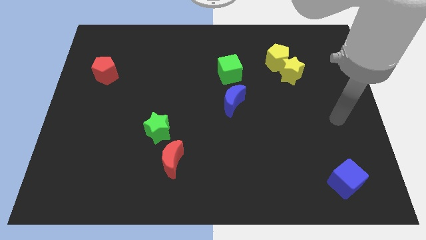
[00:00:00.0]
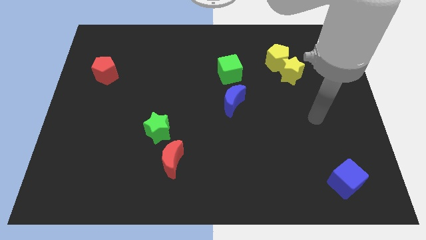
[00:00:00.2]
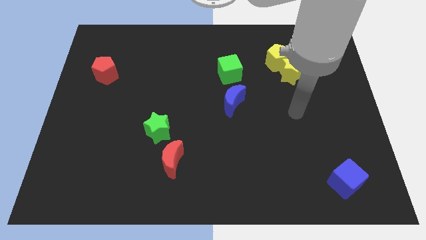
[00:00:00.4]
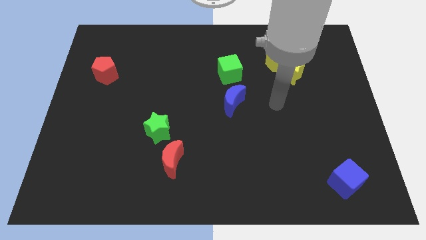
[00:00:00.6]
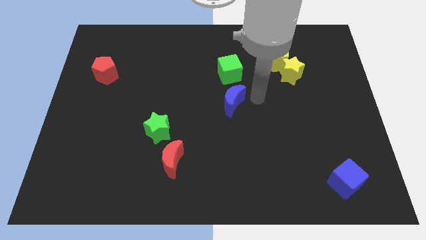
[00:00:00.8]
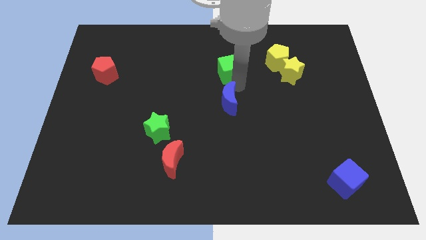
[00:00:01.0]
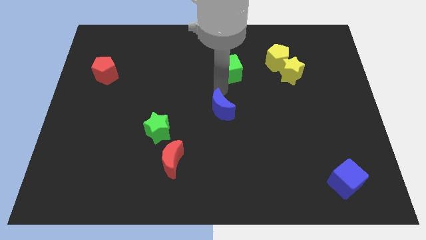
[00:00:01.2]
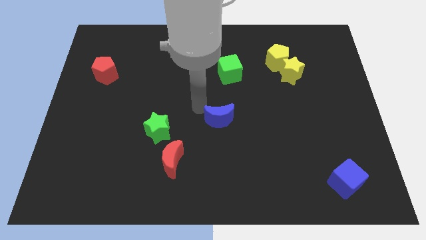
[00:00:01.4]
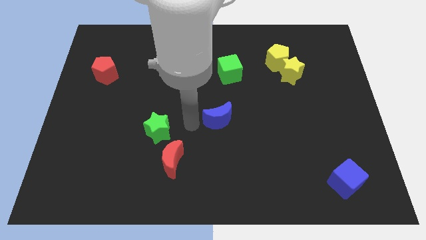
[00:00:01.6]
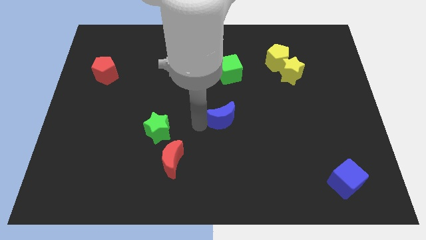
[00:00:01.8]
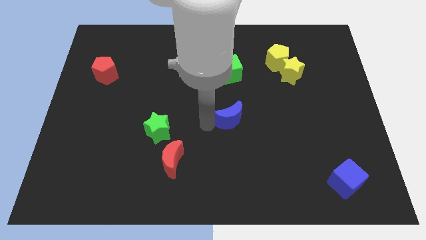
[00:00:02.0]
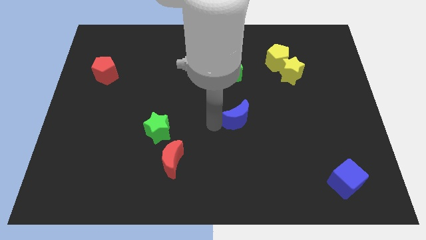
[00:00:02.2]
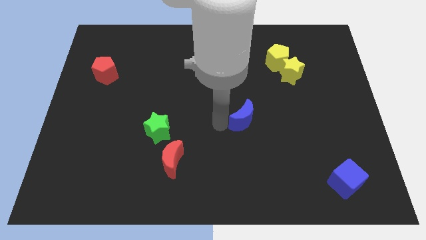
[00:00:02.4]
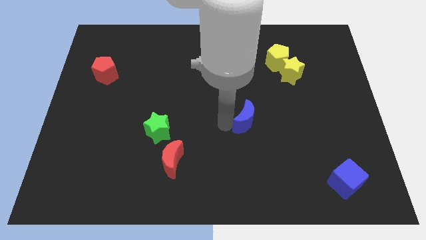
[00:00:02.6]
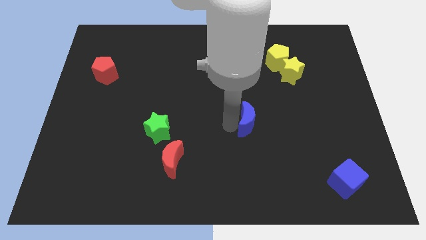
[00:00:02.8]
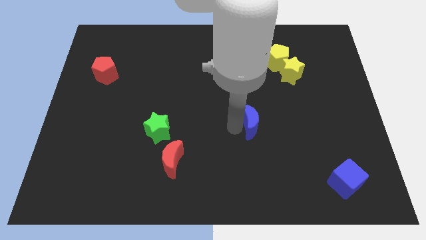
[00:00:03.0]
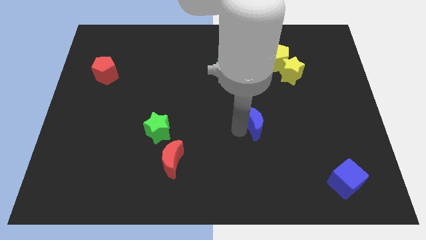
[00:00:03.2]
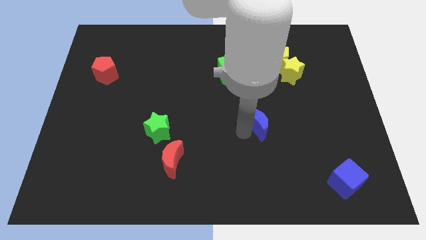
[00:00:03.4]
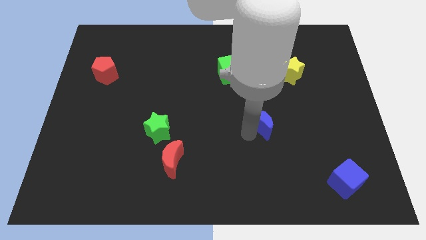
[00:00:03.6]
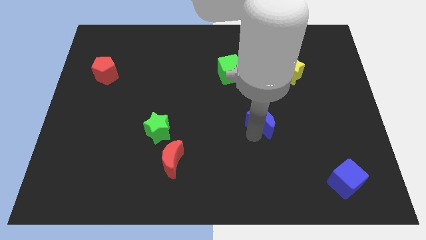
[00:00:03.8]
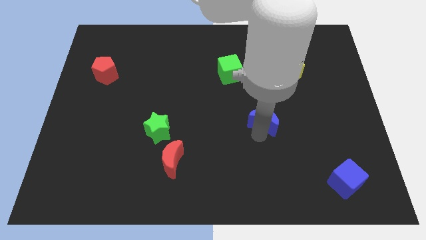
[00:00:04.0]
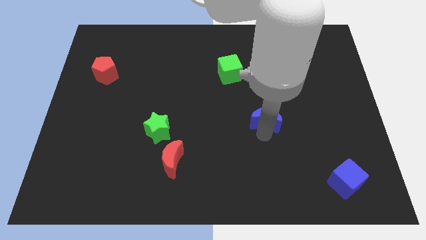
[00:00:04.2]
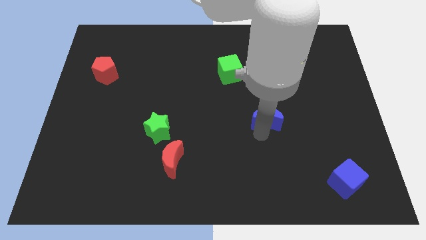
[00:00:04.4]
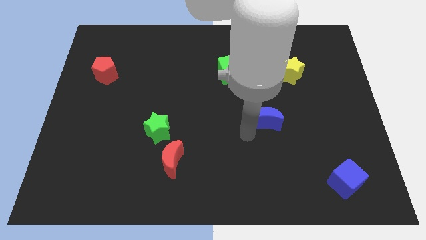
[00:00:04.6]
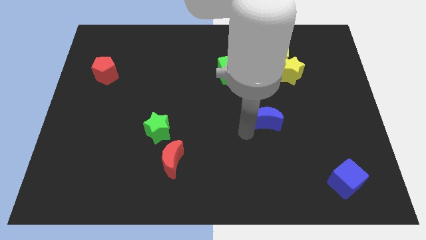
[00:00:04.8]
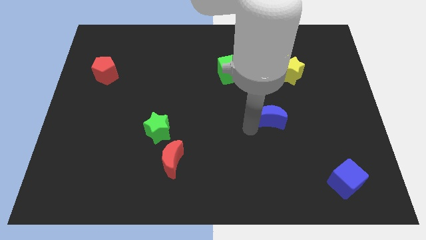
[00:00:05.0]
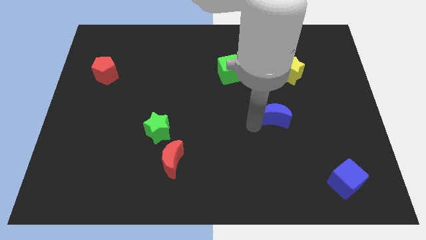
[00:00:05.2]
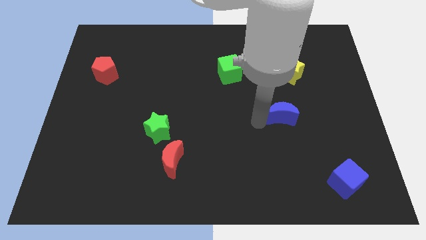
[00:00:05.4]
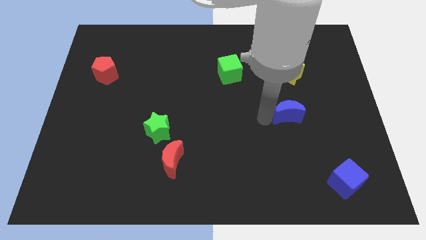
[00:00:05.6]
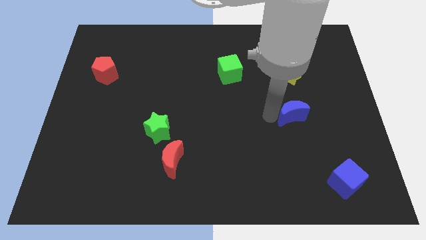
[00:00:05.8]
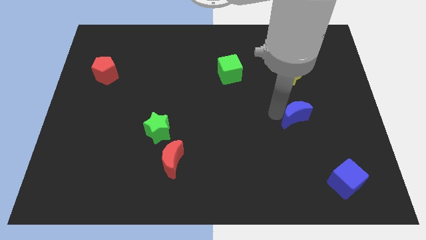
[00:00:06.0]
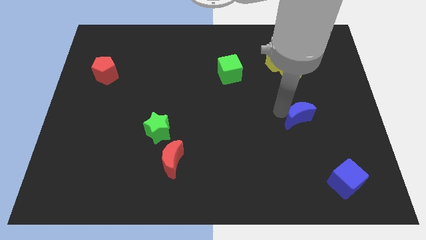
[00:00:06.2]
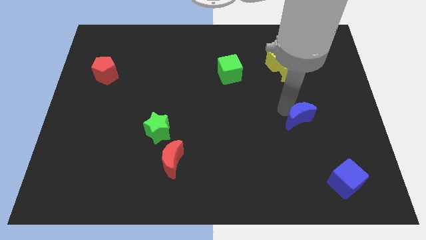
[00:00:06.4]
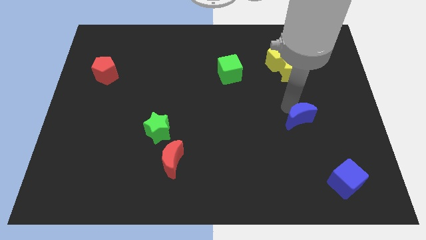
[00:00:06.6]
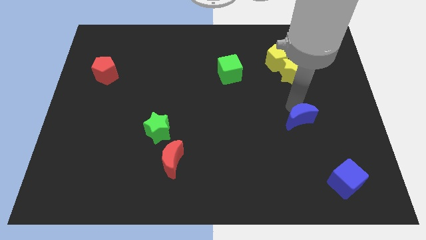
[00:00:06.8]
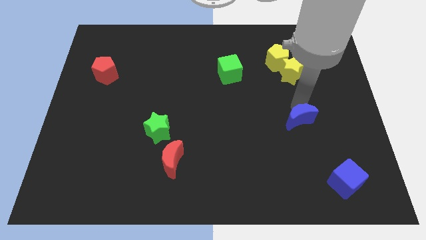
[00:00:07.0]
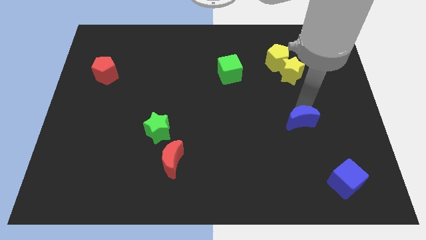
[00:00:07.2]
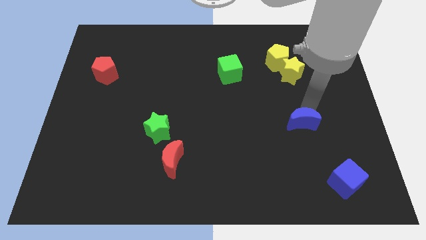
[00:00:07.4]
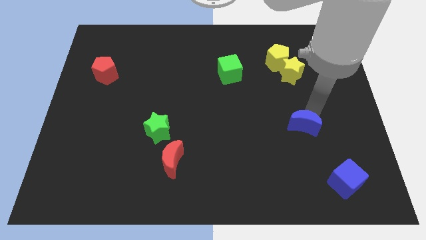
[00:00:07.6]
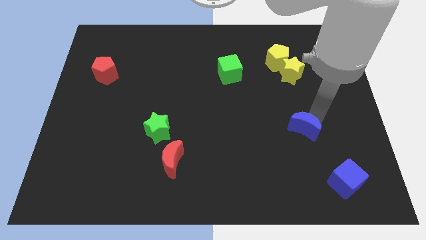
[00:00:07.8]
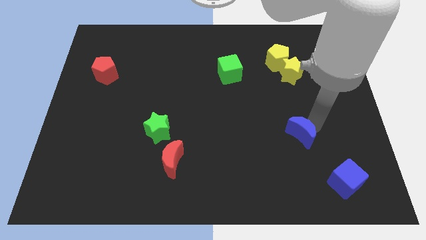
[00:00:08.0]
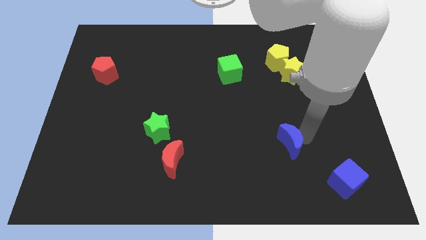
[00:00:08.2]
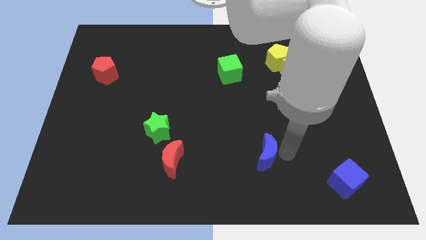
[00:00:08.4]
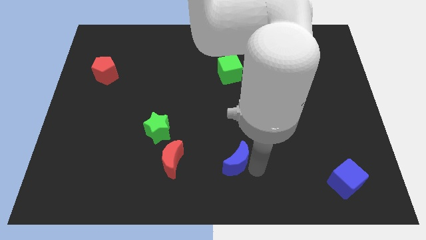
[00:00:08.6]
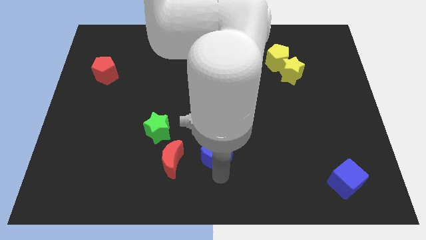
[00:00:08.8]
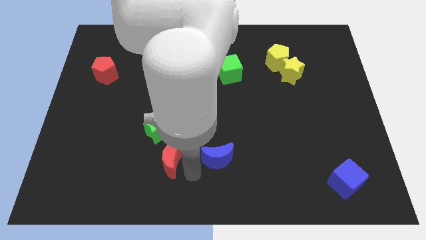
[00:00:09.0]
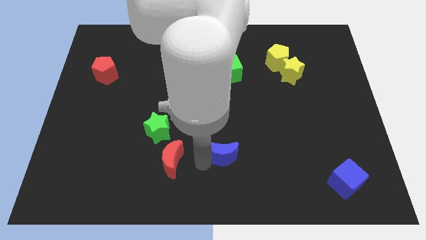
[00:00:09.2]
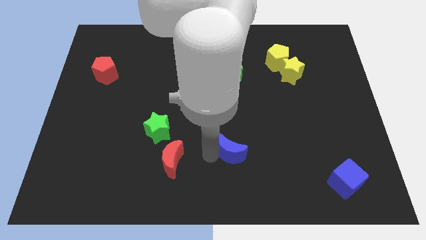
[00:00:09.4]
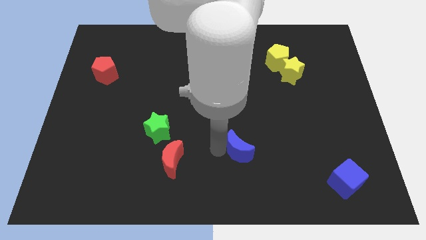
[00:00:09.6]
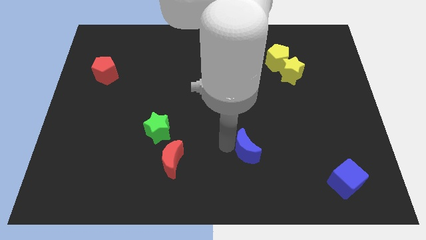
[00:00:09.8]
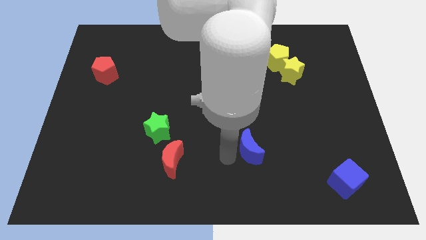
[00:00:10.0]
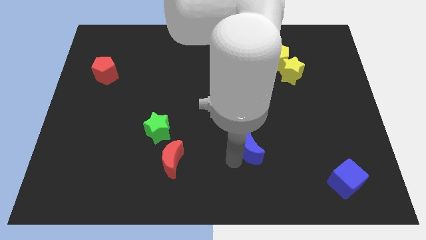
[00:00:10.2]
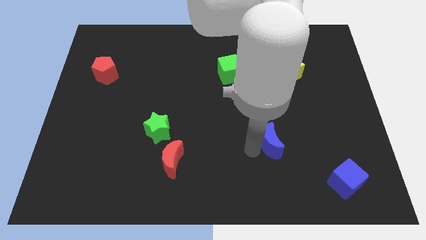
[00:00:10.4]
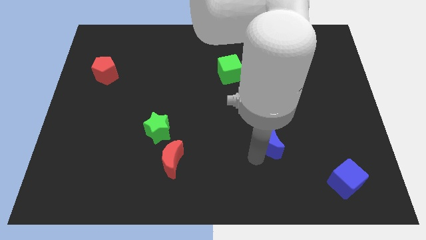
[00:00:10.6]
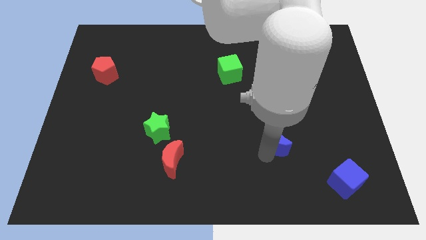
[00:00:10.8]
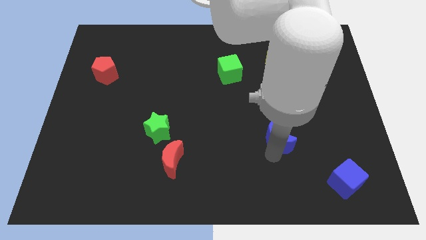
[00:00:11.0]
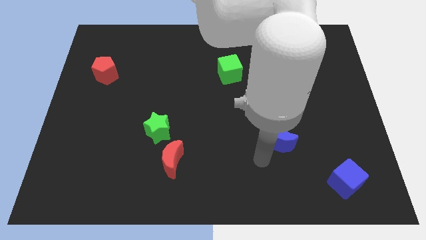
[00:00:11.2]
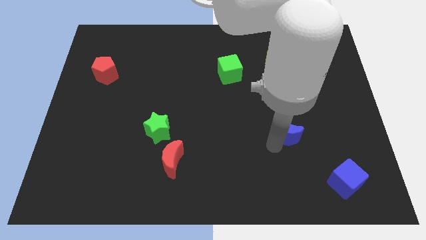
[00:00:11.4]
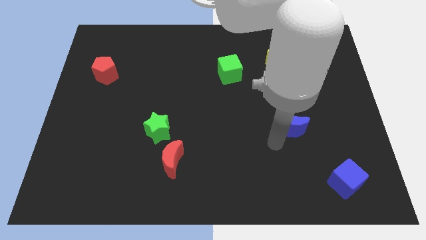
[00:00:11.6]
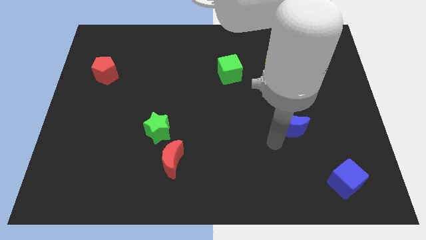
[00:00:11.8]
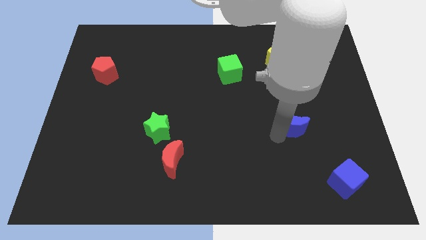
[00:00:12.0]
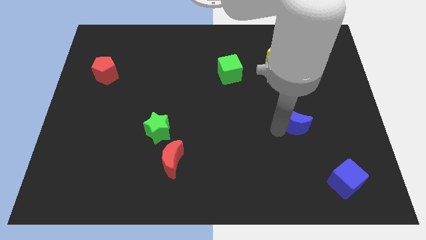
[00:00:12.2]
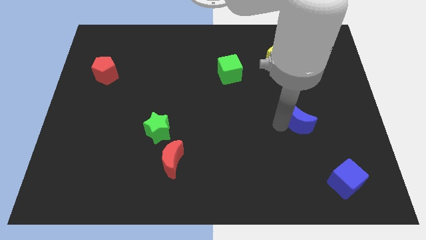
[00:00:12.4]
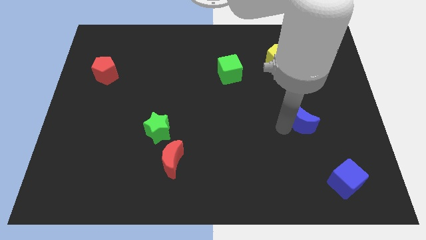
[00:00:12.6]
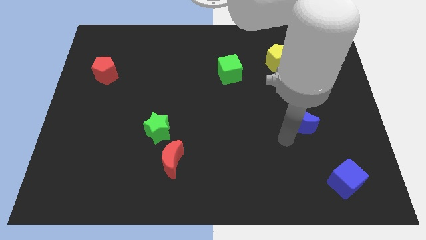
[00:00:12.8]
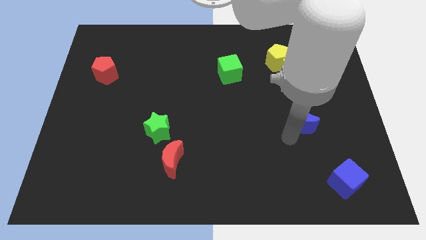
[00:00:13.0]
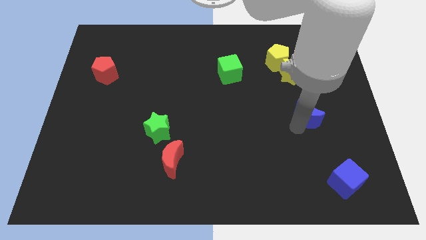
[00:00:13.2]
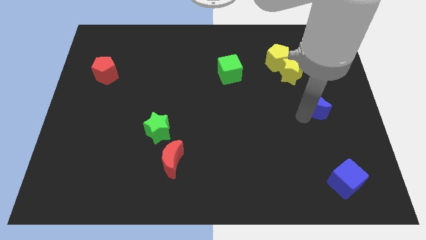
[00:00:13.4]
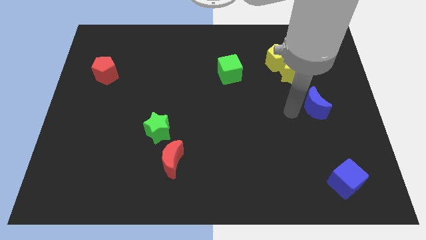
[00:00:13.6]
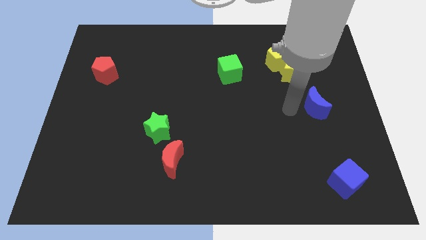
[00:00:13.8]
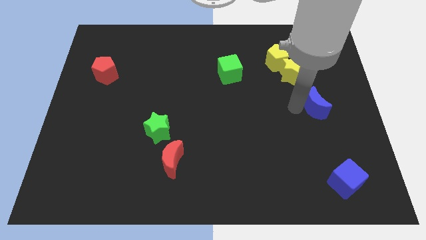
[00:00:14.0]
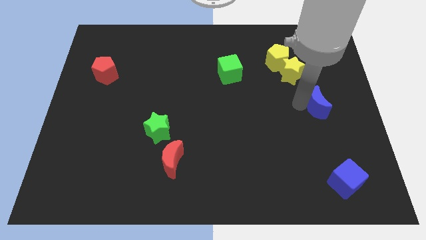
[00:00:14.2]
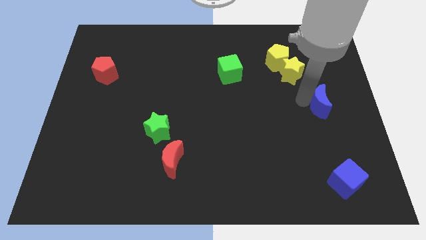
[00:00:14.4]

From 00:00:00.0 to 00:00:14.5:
push the blue moon to the right side of the board
